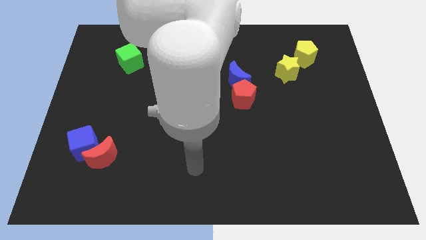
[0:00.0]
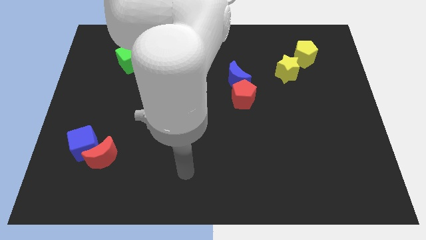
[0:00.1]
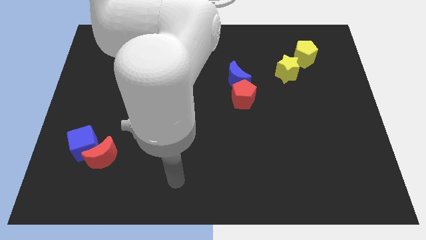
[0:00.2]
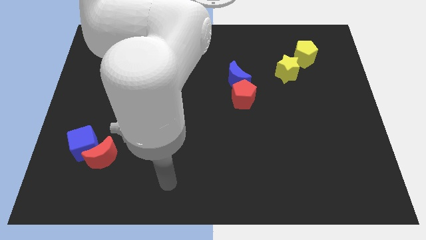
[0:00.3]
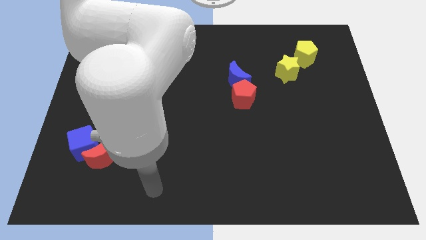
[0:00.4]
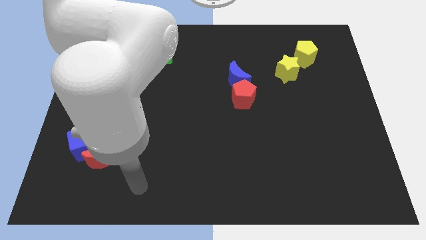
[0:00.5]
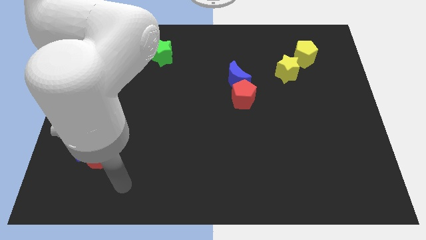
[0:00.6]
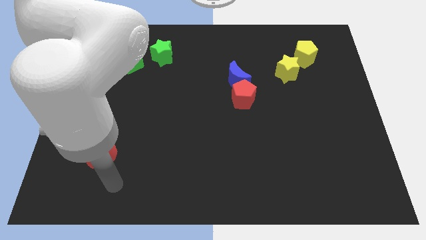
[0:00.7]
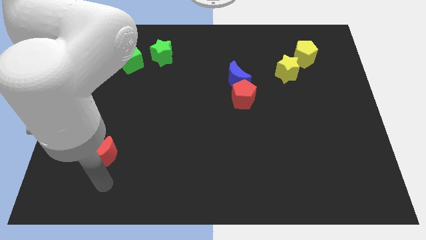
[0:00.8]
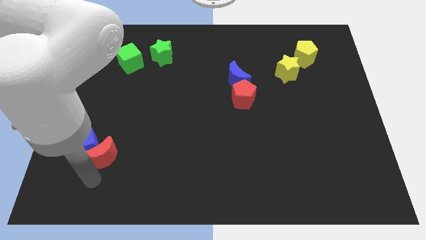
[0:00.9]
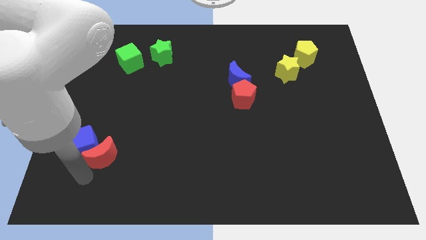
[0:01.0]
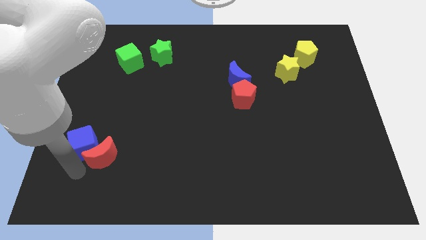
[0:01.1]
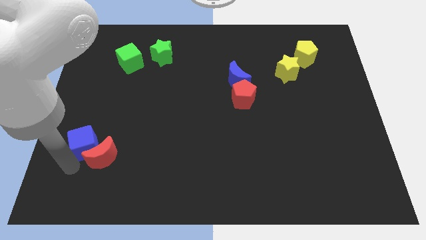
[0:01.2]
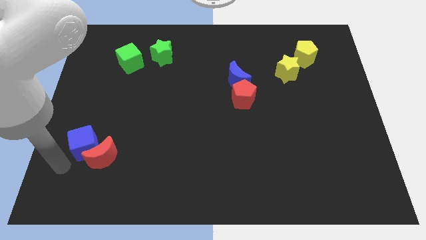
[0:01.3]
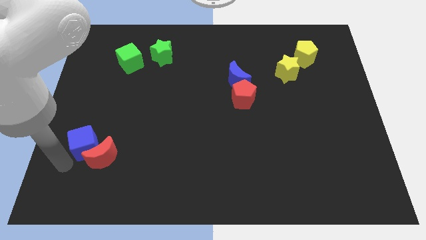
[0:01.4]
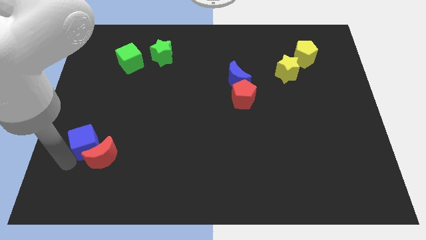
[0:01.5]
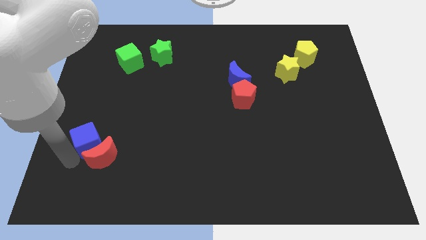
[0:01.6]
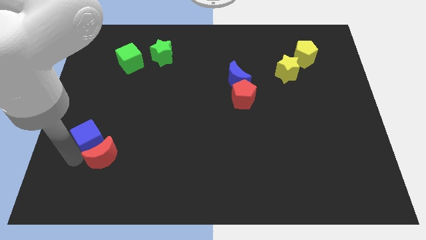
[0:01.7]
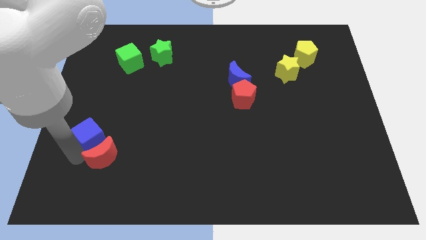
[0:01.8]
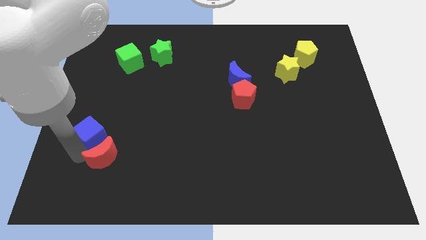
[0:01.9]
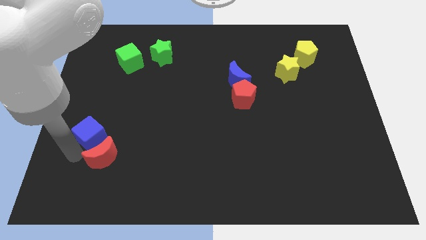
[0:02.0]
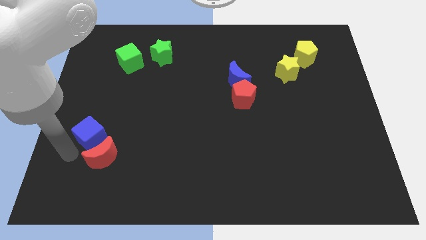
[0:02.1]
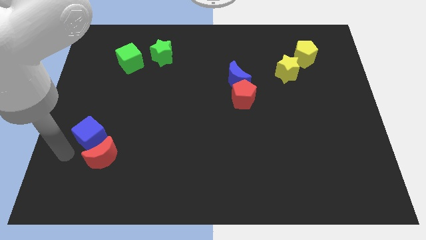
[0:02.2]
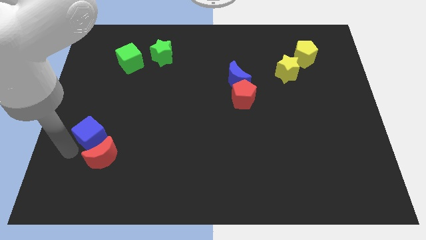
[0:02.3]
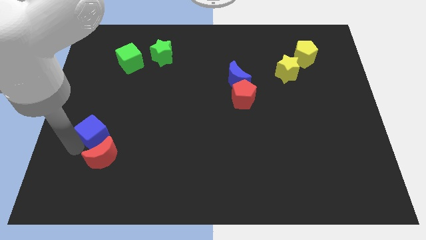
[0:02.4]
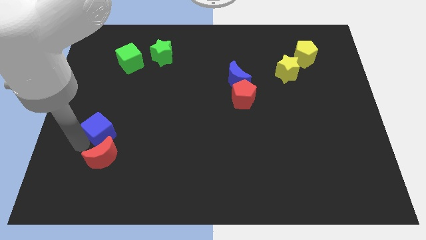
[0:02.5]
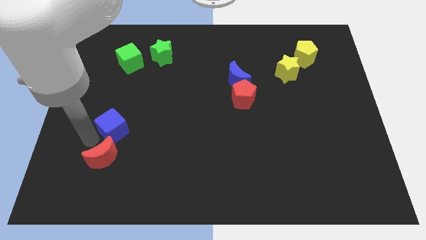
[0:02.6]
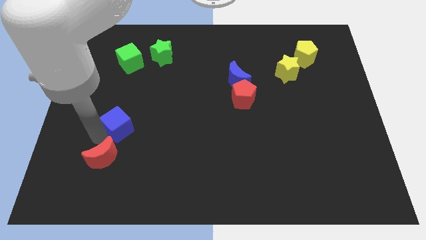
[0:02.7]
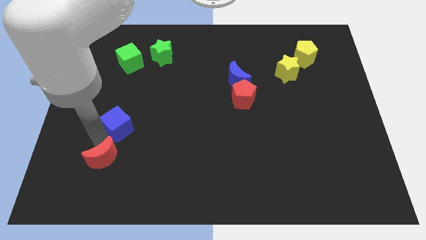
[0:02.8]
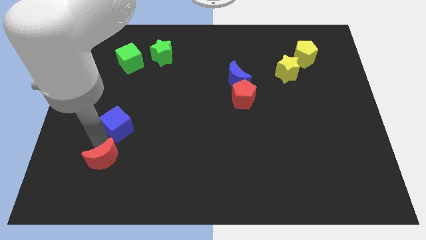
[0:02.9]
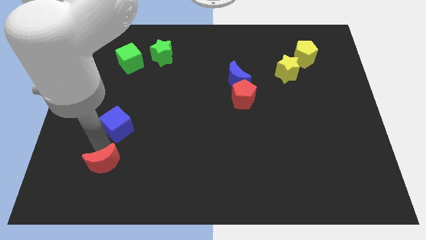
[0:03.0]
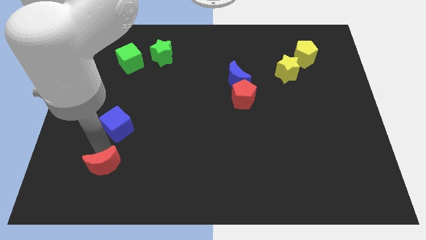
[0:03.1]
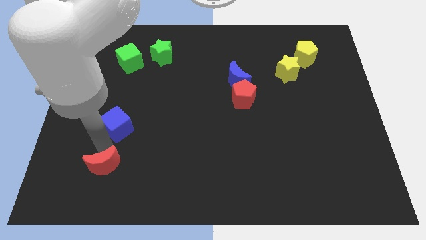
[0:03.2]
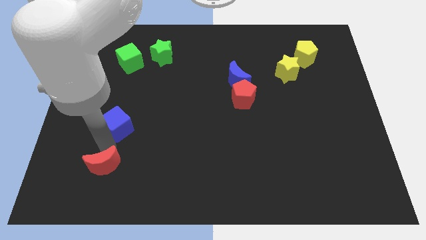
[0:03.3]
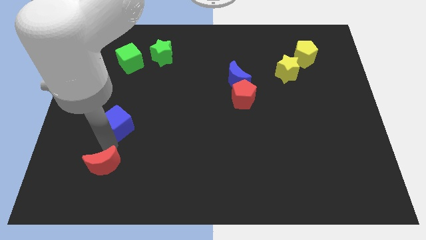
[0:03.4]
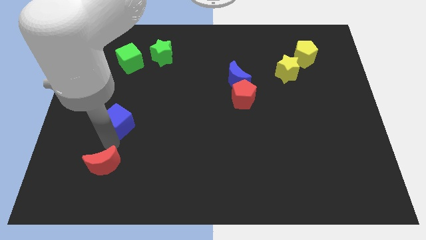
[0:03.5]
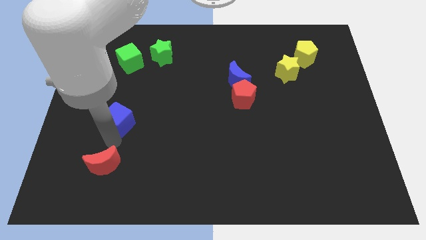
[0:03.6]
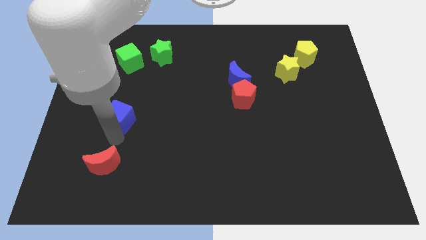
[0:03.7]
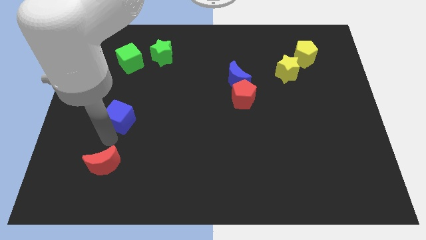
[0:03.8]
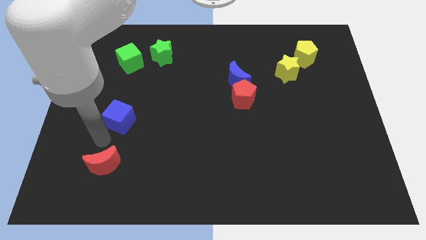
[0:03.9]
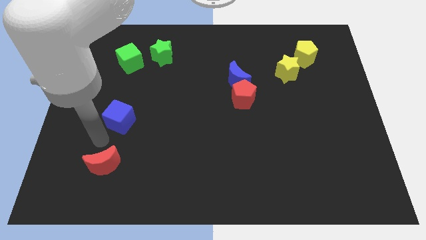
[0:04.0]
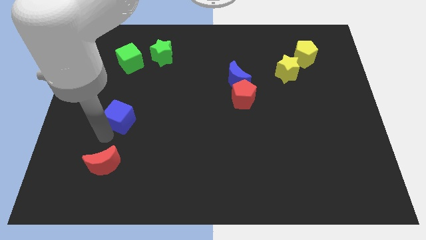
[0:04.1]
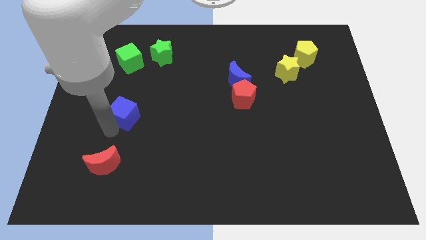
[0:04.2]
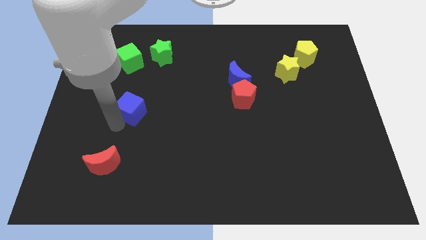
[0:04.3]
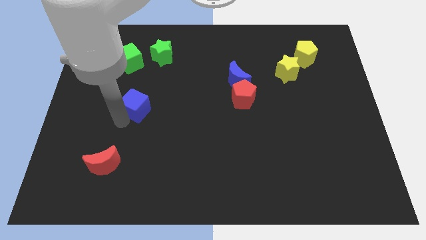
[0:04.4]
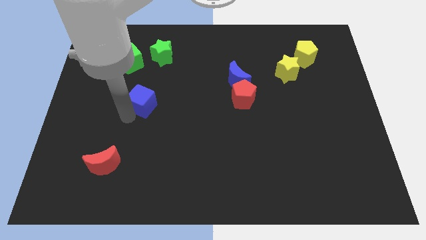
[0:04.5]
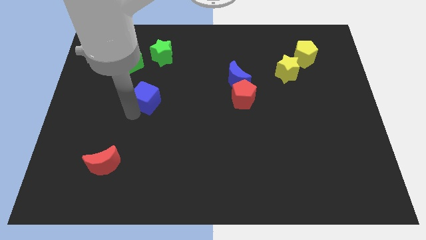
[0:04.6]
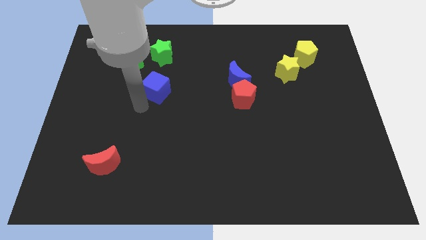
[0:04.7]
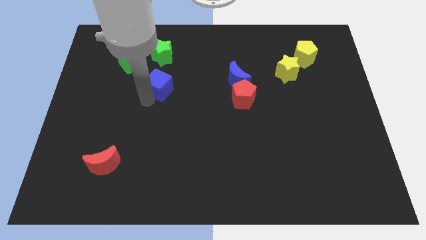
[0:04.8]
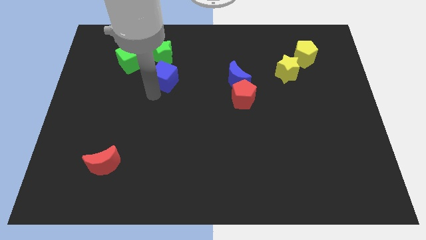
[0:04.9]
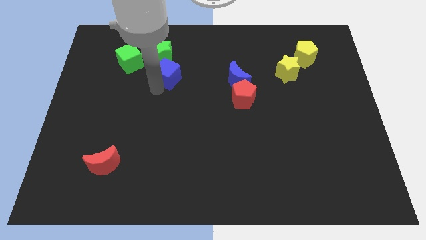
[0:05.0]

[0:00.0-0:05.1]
move the blue cube diagonally down and to the right of the green star

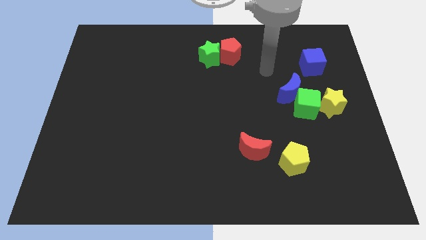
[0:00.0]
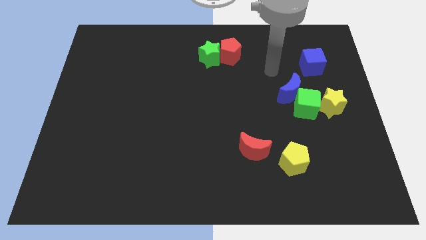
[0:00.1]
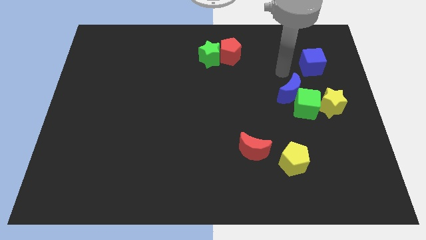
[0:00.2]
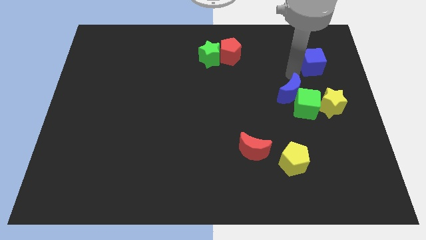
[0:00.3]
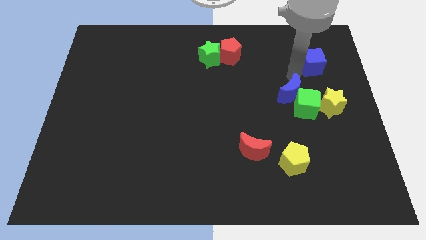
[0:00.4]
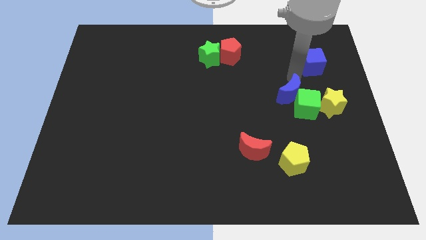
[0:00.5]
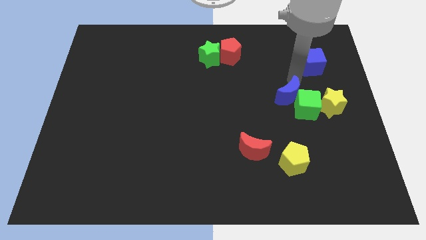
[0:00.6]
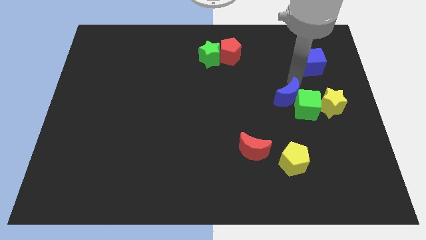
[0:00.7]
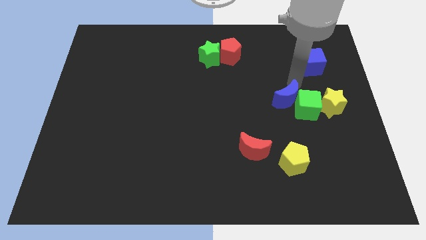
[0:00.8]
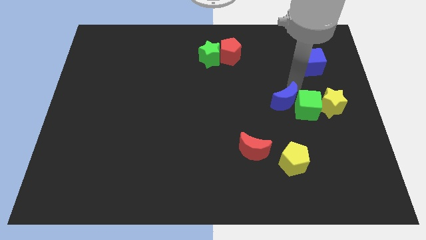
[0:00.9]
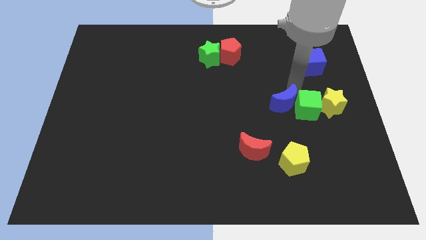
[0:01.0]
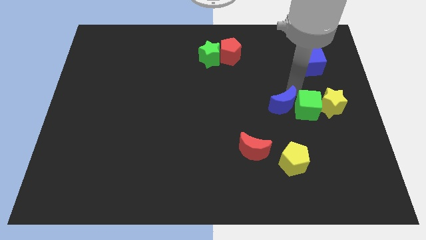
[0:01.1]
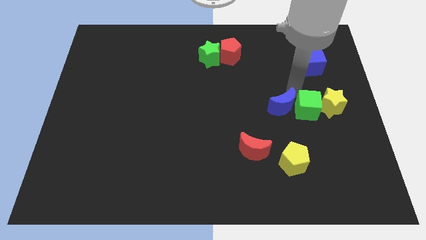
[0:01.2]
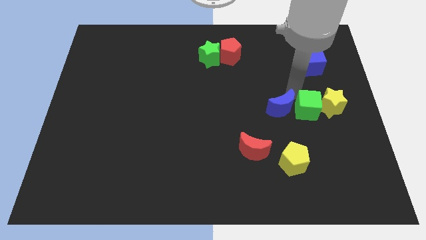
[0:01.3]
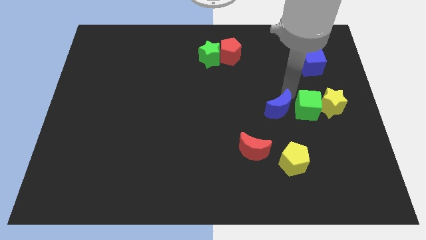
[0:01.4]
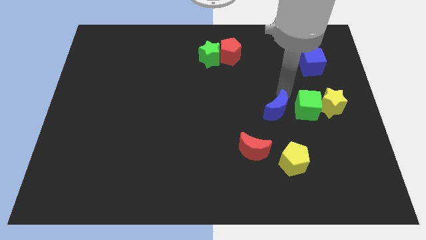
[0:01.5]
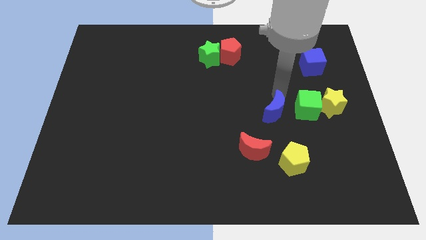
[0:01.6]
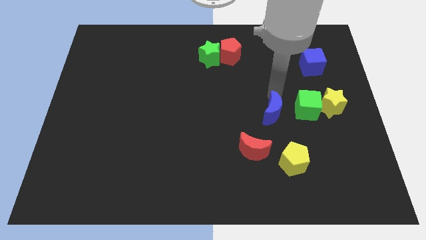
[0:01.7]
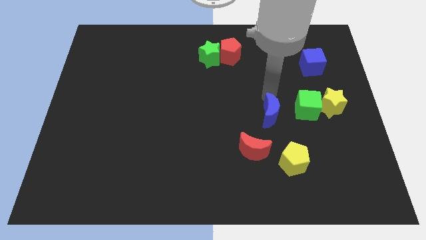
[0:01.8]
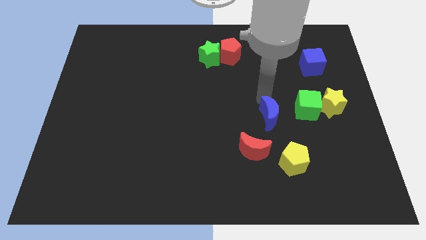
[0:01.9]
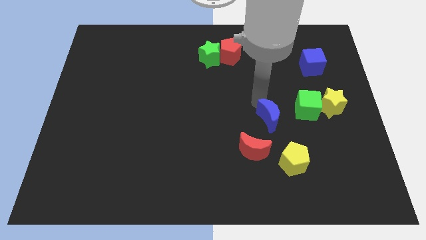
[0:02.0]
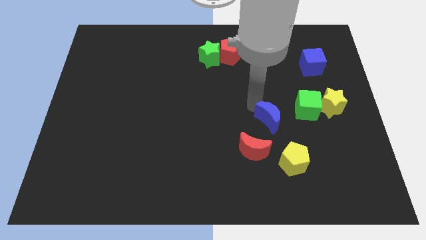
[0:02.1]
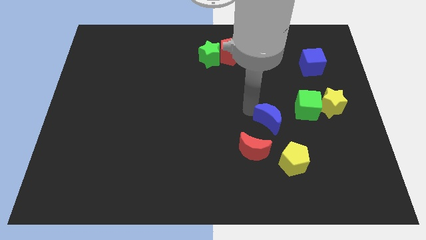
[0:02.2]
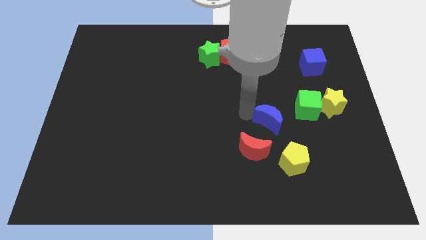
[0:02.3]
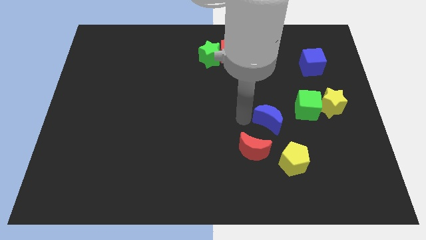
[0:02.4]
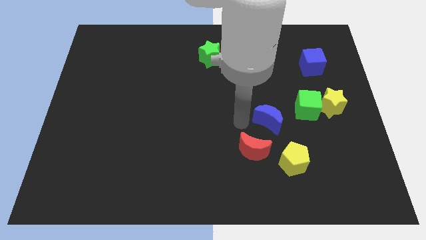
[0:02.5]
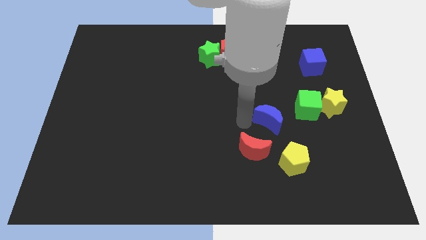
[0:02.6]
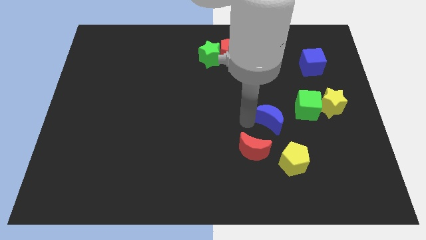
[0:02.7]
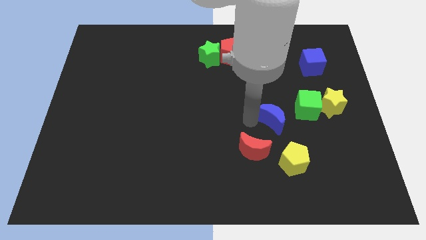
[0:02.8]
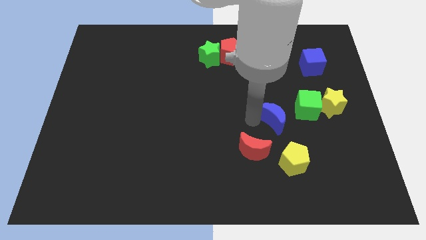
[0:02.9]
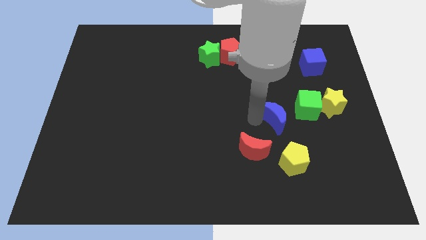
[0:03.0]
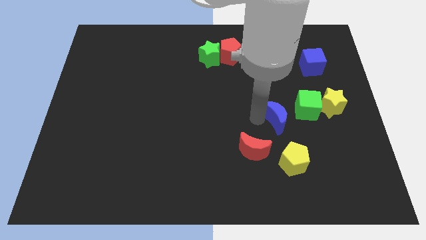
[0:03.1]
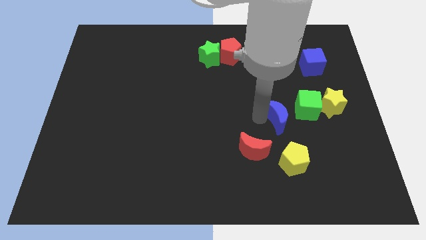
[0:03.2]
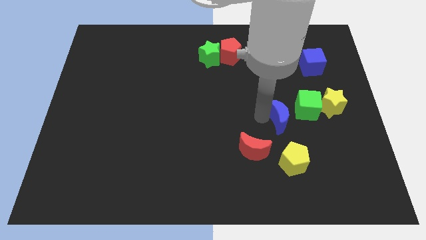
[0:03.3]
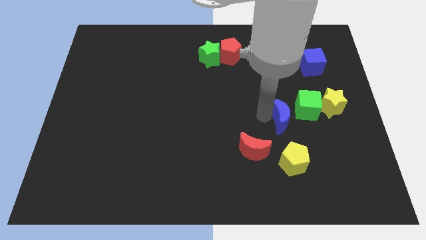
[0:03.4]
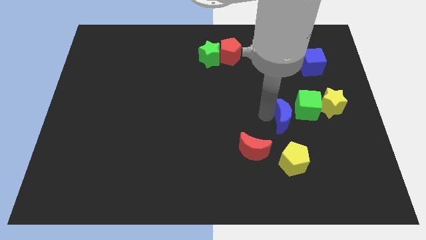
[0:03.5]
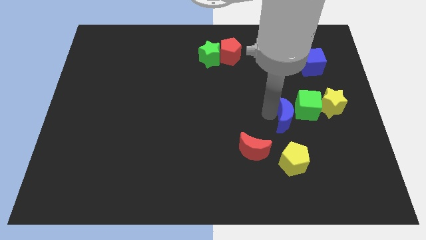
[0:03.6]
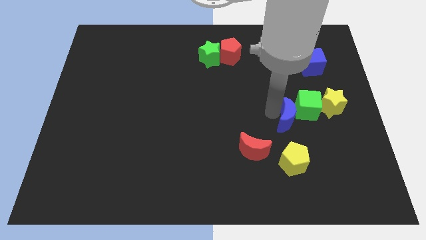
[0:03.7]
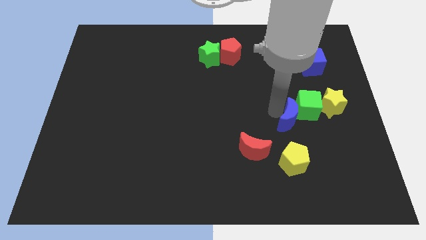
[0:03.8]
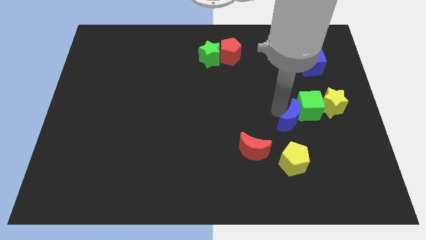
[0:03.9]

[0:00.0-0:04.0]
move the blue moon to the bottom of the green cube
